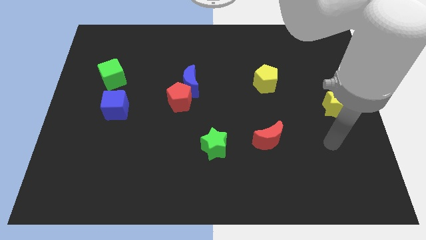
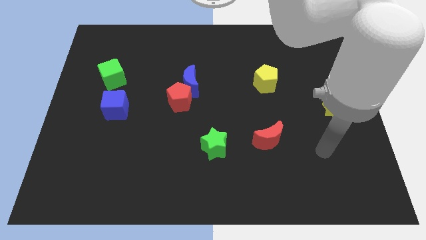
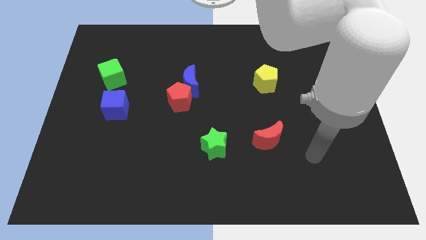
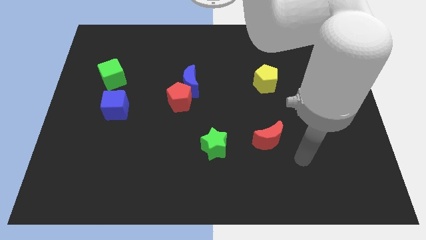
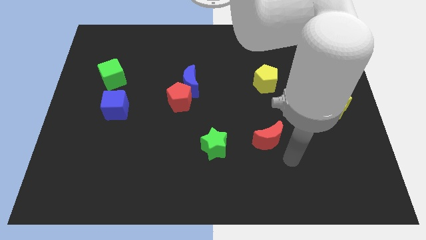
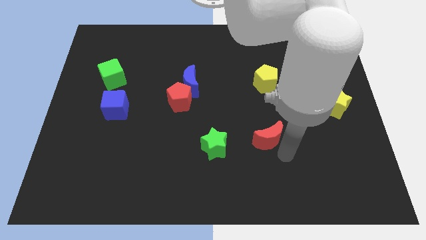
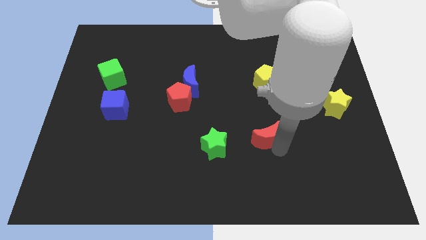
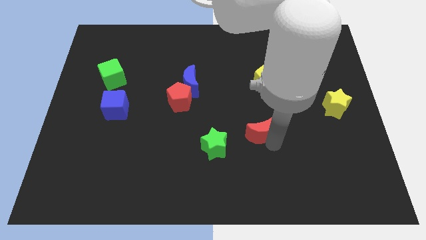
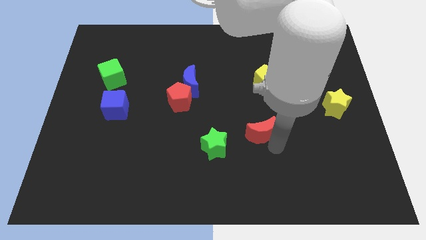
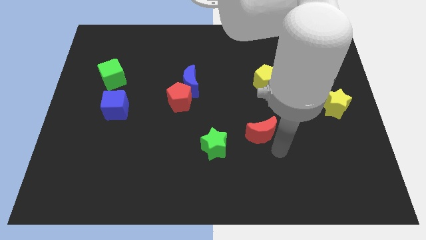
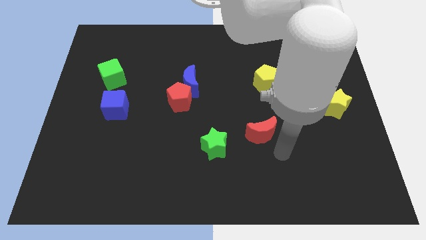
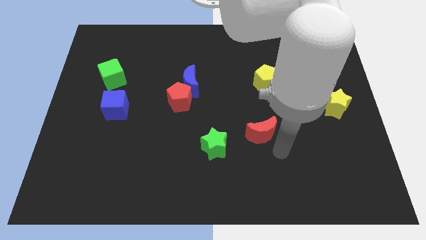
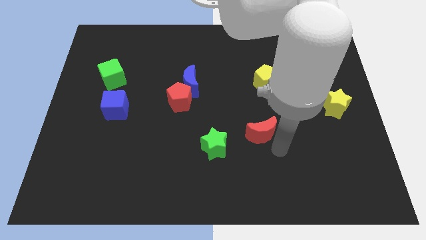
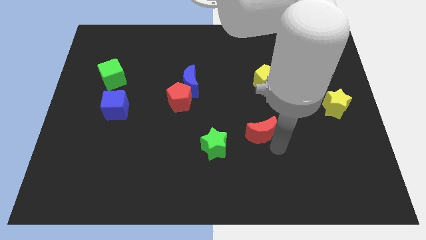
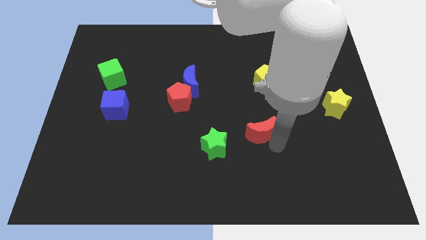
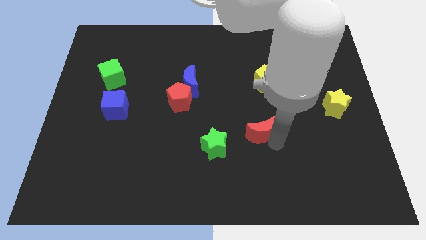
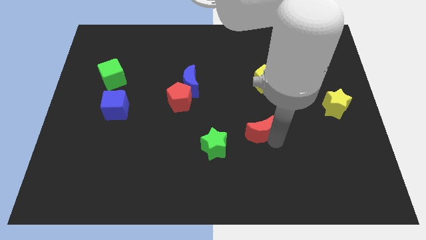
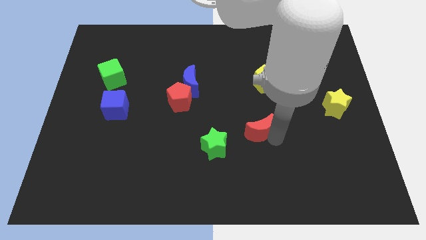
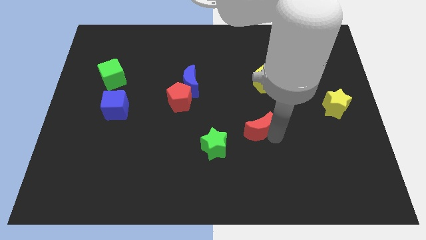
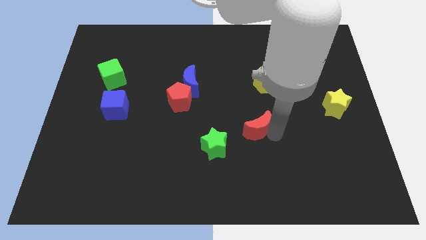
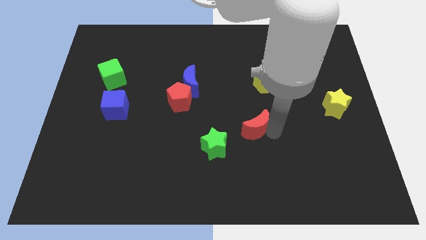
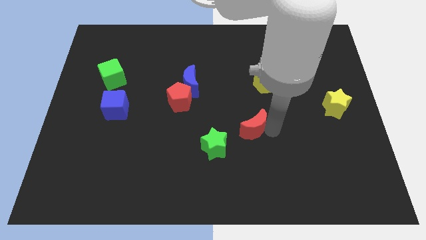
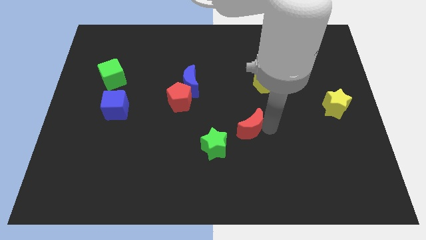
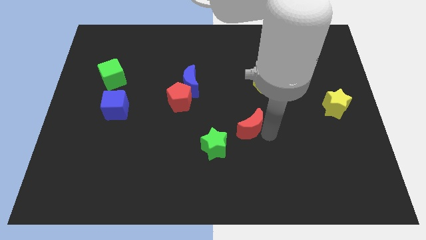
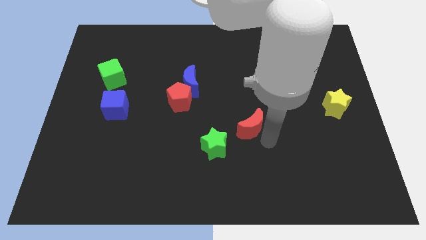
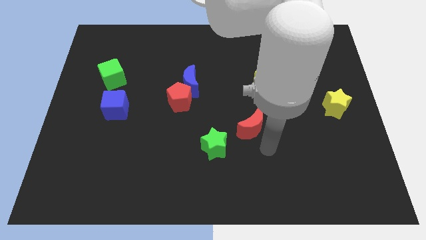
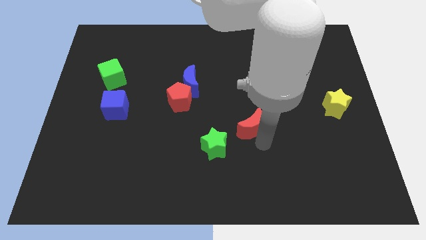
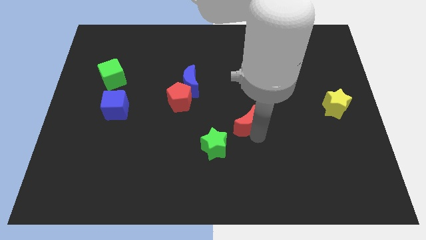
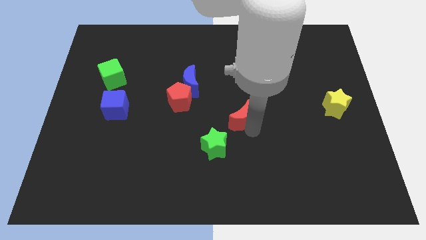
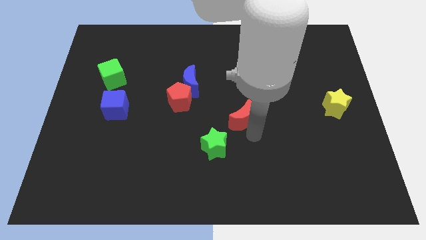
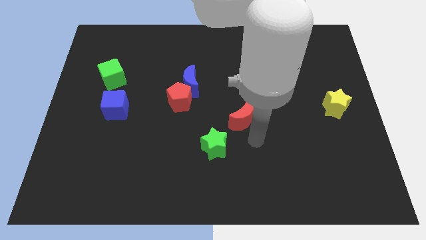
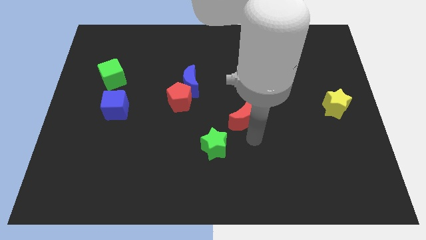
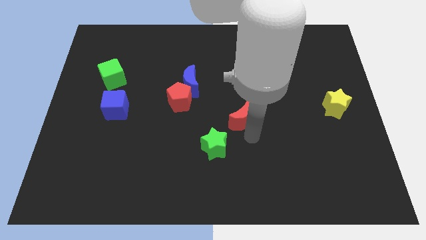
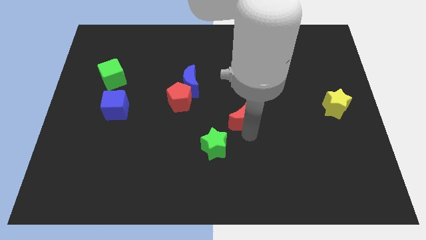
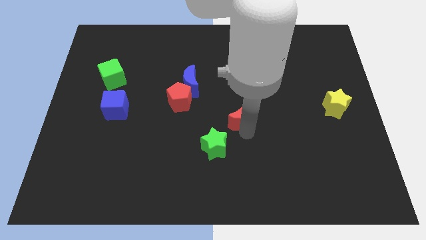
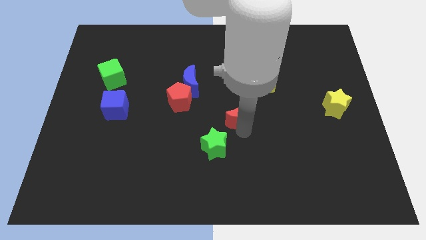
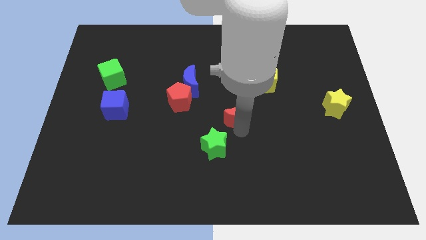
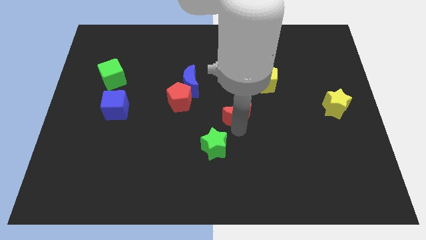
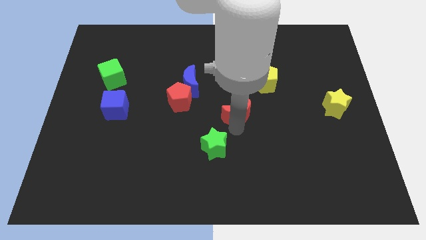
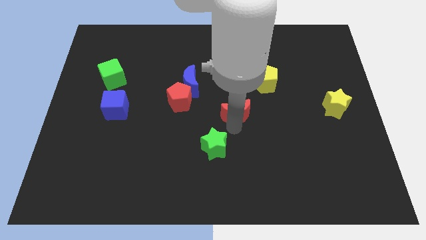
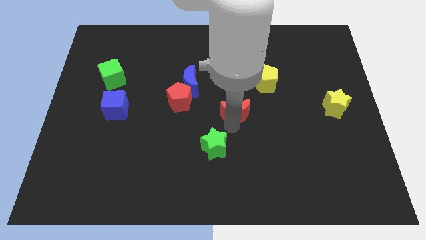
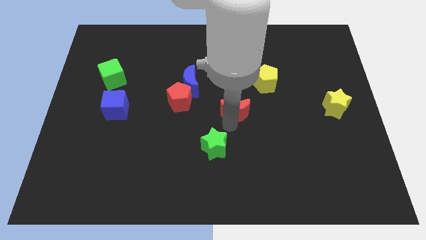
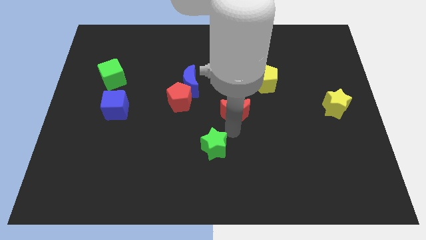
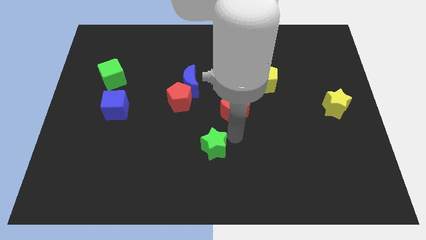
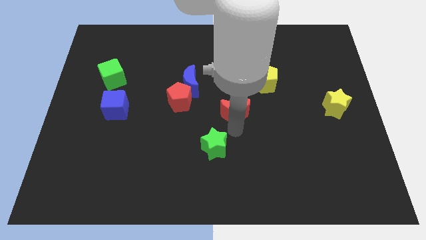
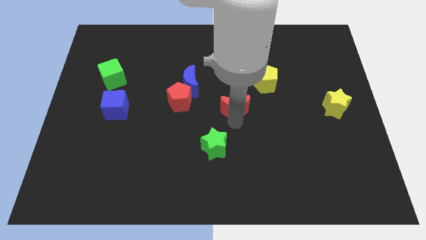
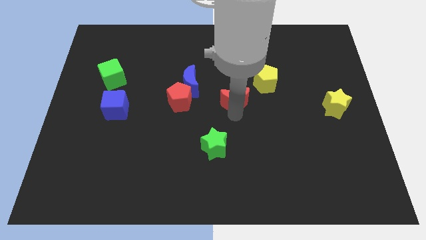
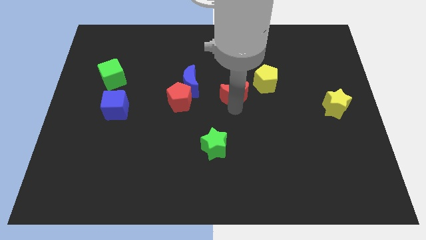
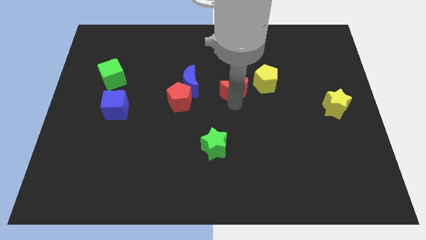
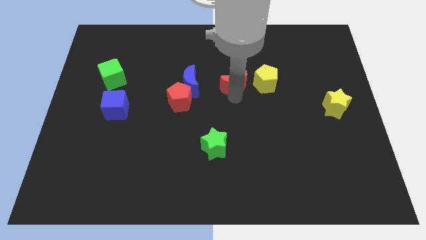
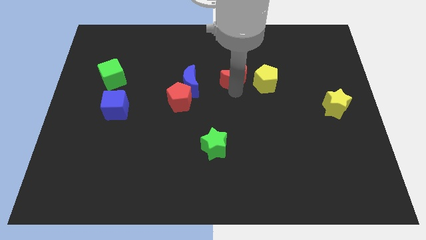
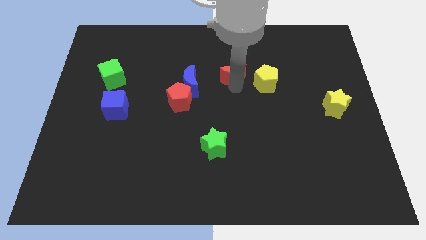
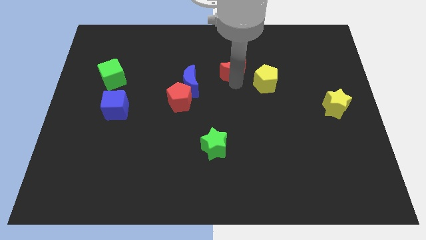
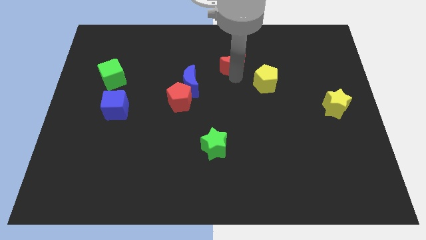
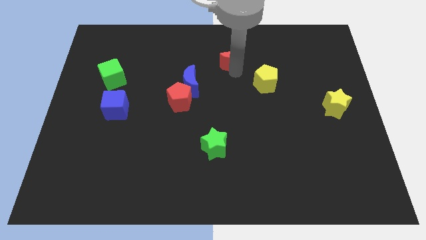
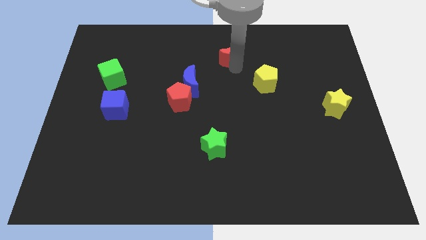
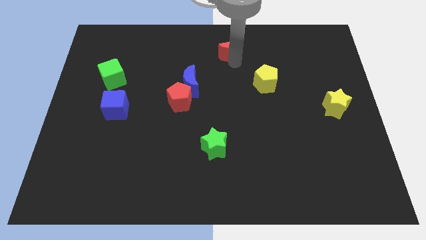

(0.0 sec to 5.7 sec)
slide the red moon to the top side

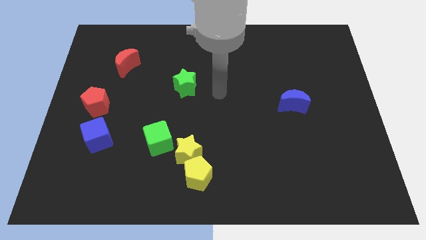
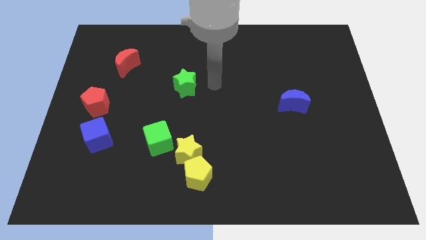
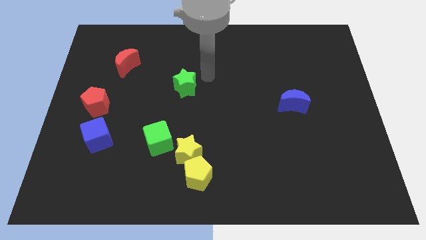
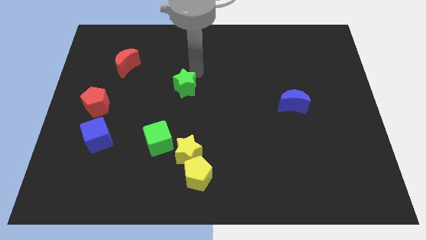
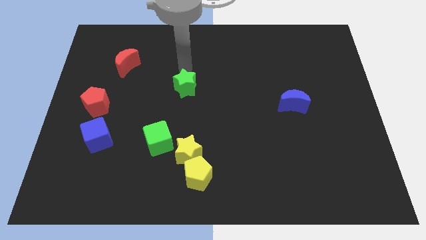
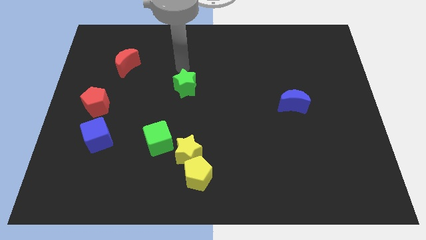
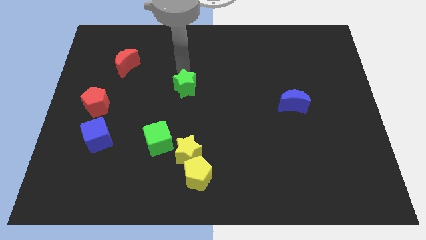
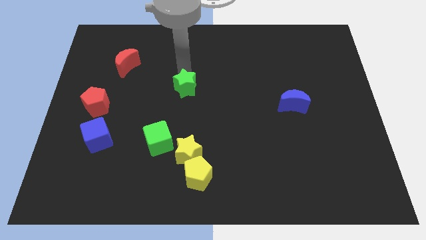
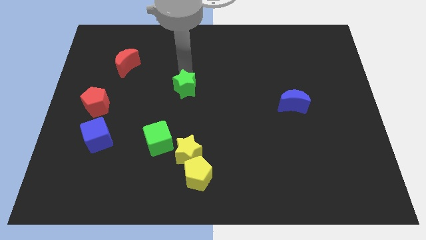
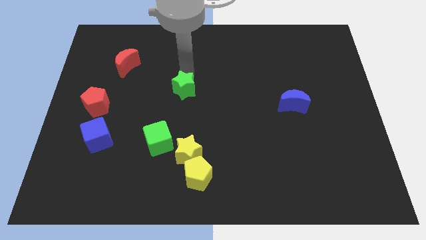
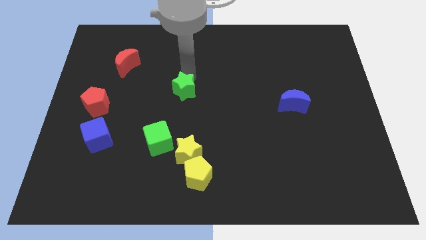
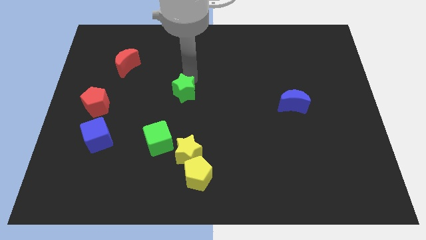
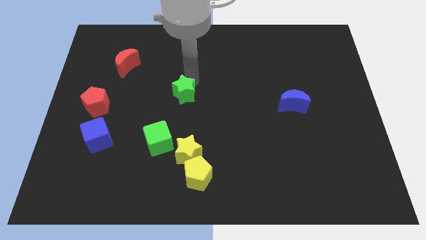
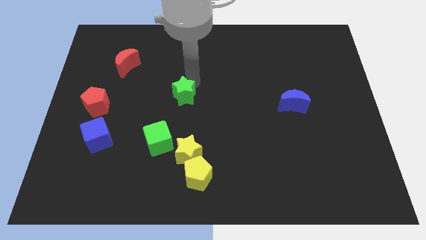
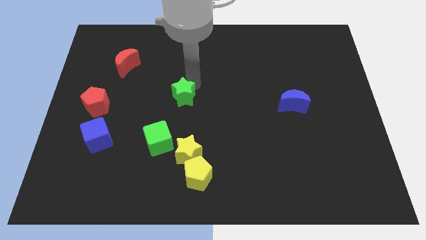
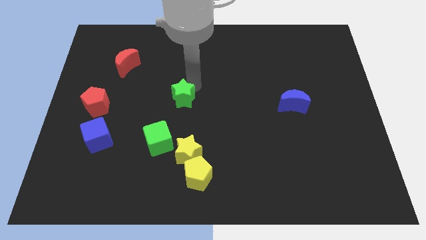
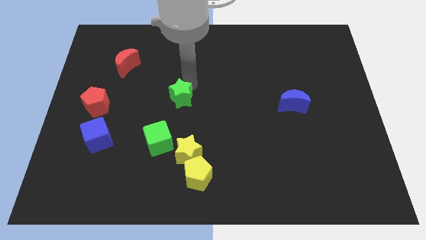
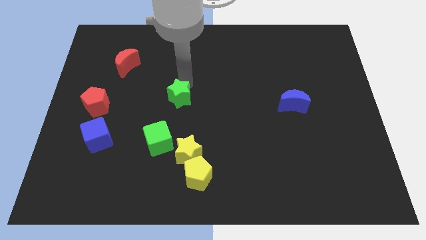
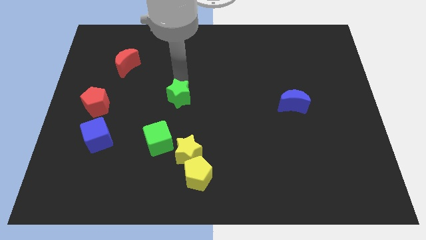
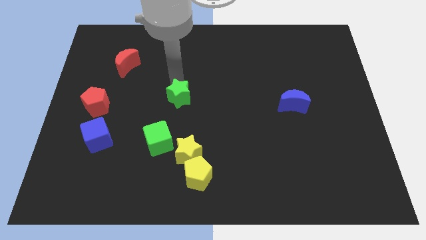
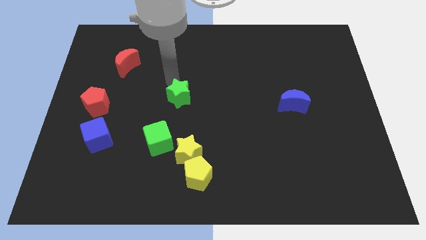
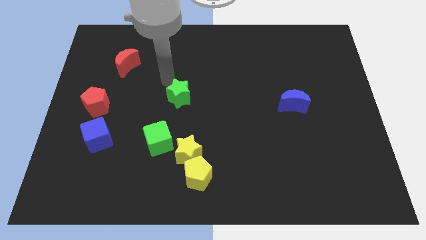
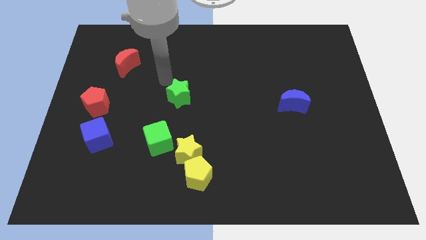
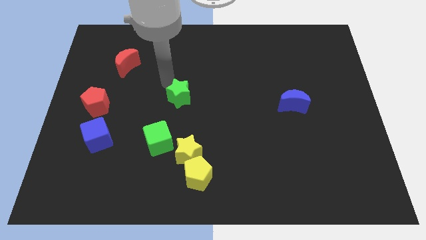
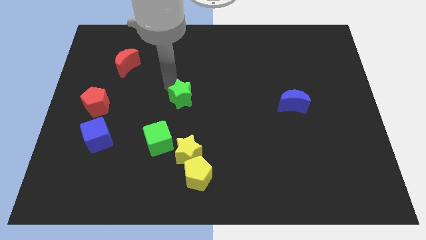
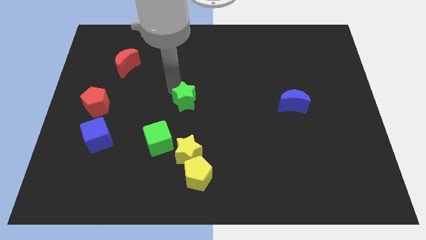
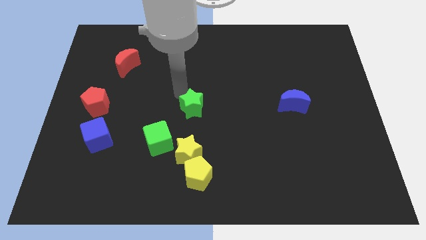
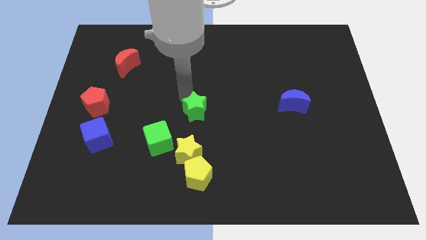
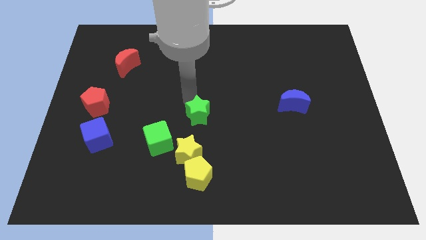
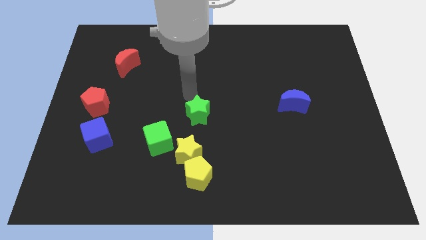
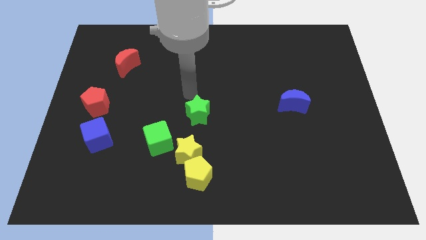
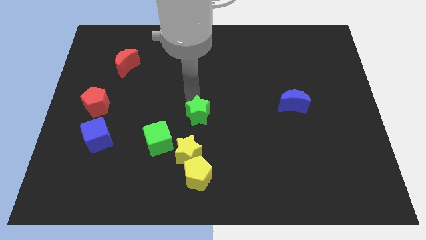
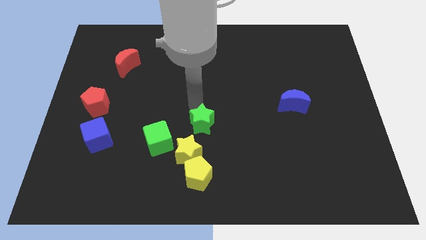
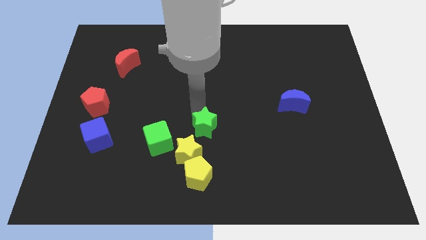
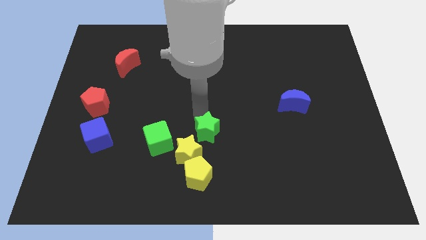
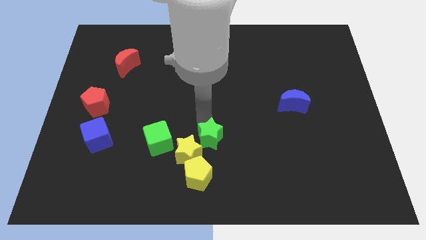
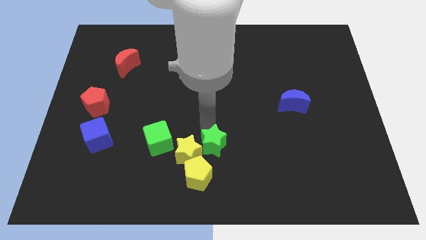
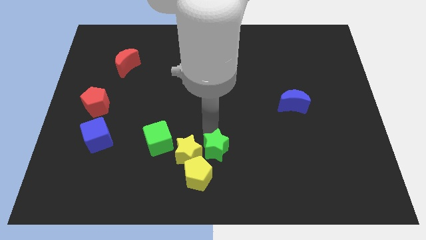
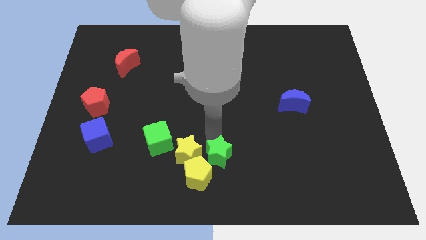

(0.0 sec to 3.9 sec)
move the green star to the bottom
